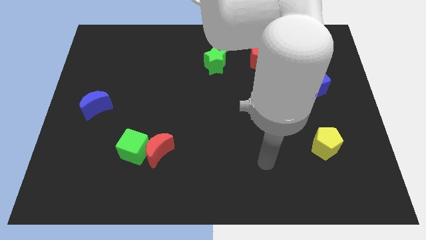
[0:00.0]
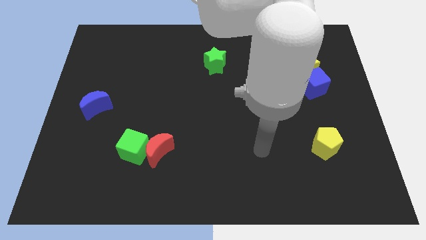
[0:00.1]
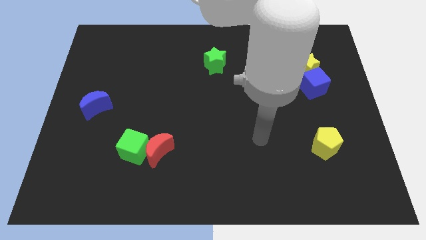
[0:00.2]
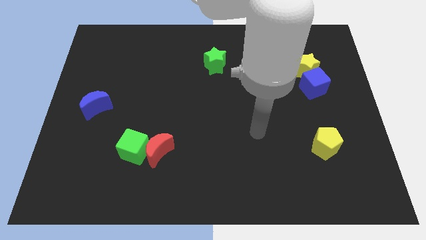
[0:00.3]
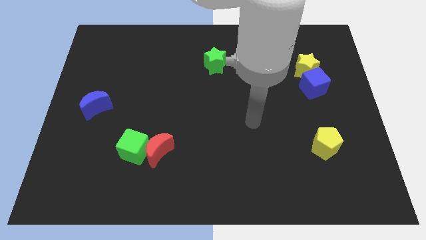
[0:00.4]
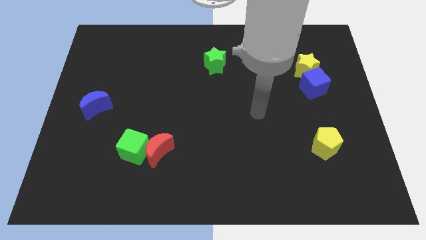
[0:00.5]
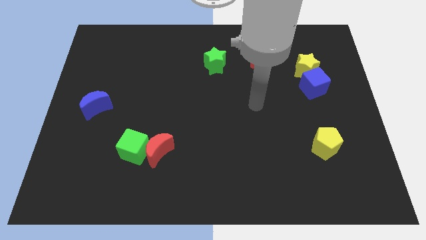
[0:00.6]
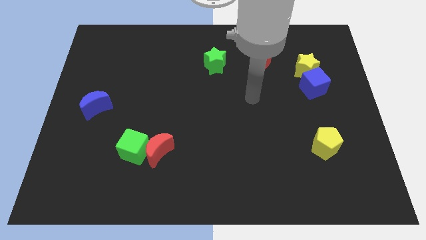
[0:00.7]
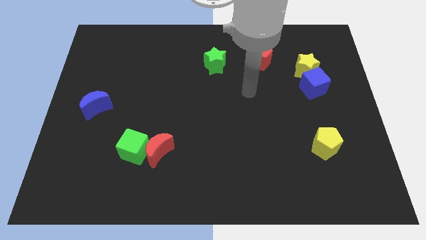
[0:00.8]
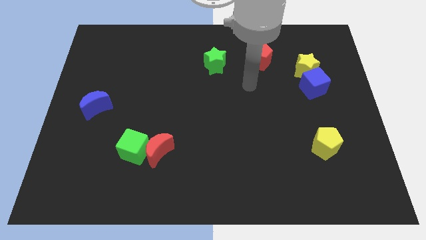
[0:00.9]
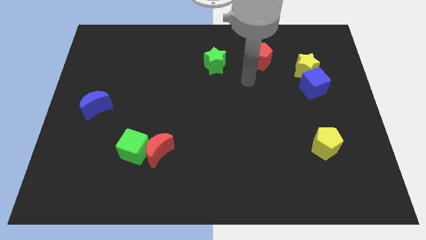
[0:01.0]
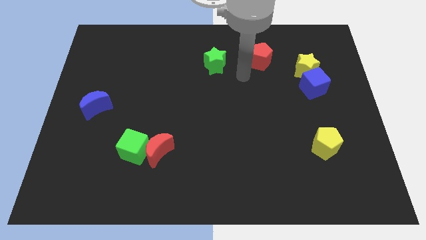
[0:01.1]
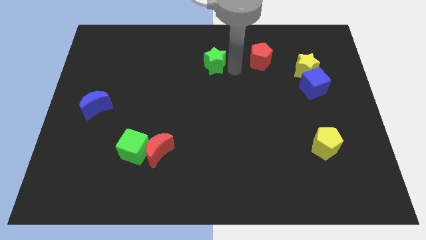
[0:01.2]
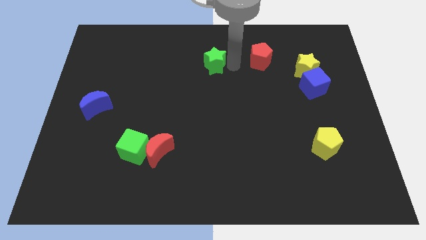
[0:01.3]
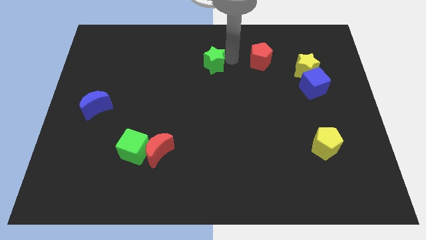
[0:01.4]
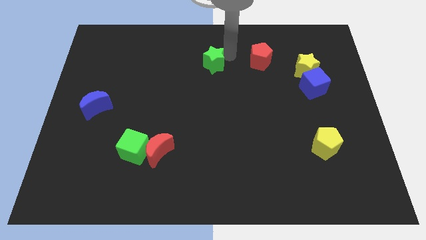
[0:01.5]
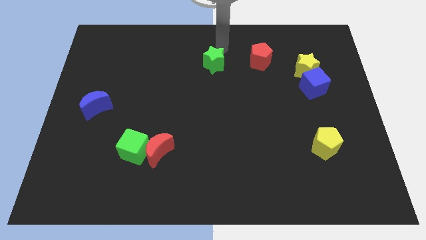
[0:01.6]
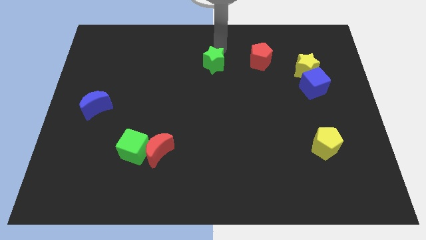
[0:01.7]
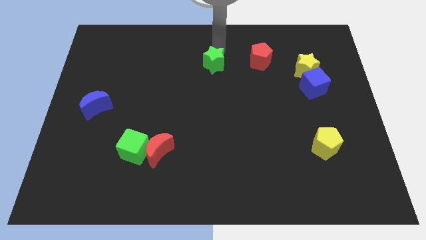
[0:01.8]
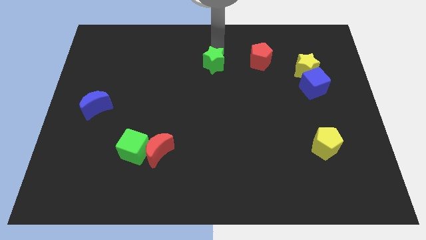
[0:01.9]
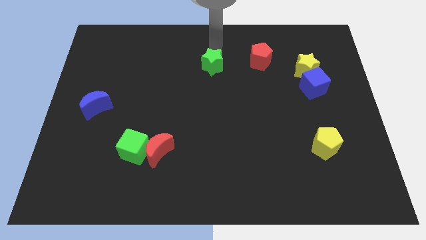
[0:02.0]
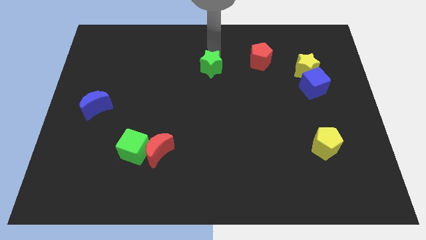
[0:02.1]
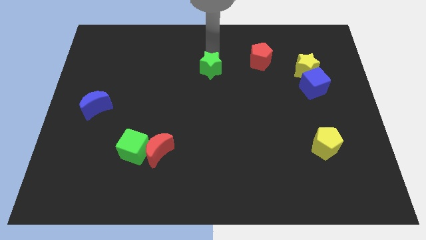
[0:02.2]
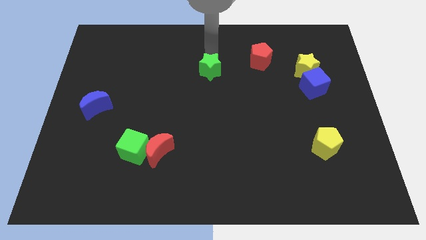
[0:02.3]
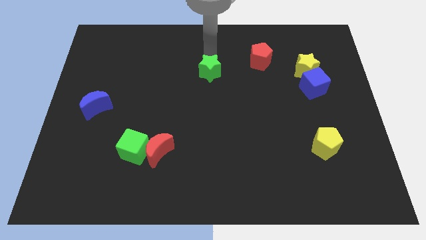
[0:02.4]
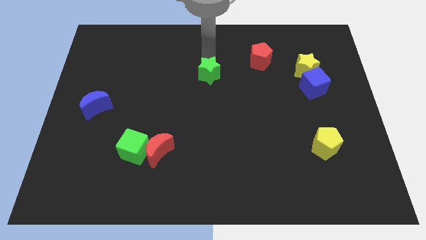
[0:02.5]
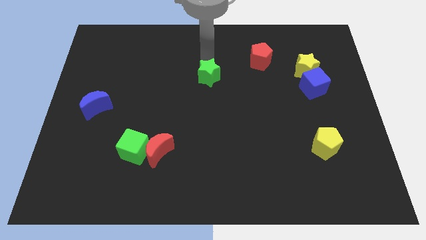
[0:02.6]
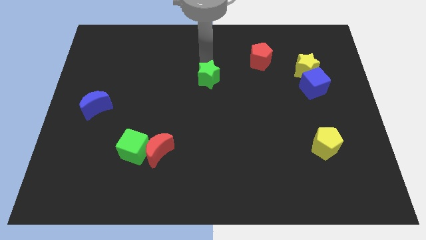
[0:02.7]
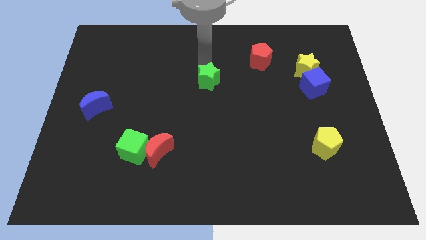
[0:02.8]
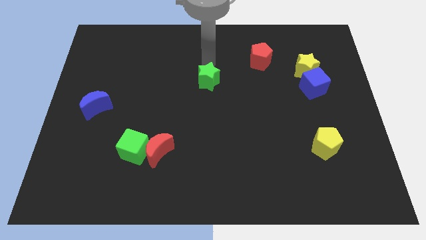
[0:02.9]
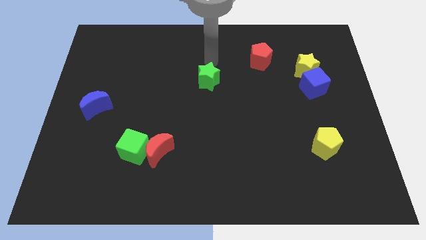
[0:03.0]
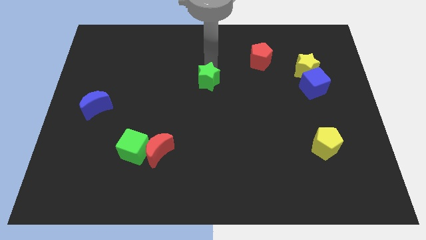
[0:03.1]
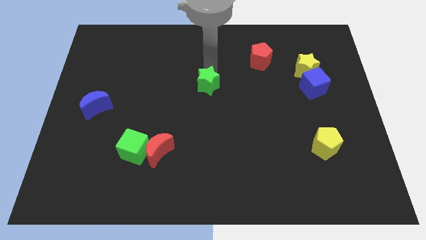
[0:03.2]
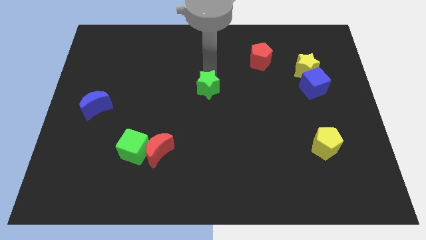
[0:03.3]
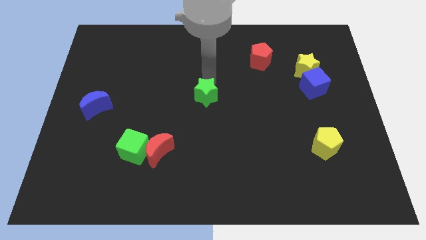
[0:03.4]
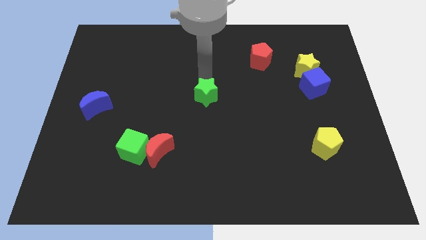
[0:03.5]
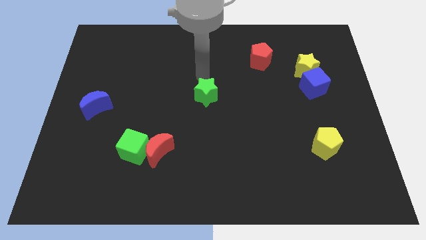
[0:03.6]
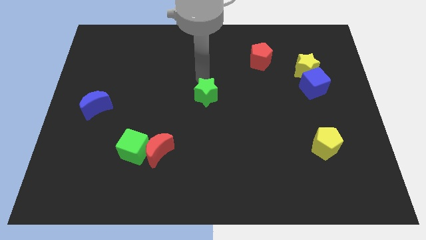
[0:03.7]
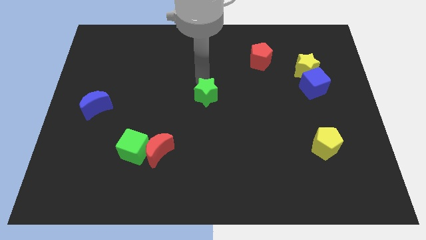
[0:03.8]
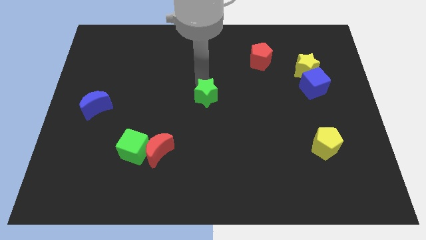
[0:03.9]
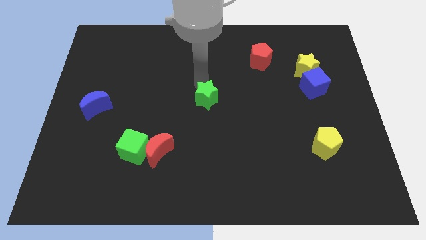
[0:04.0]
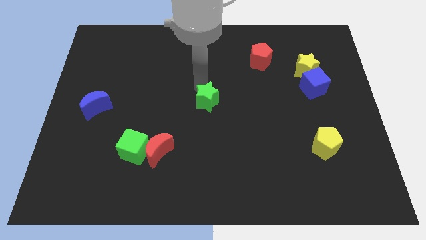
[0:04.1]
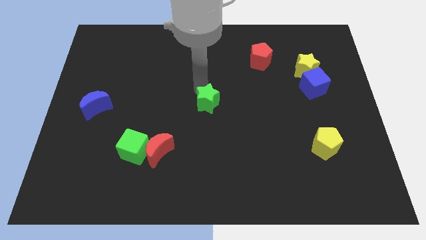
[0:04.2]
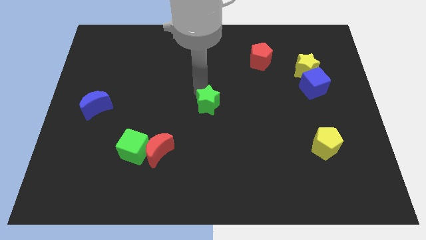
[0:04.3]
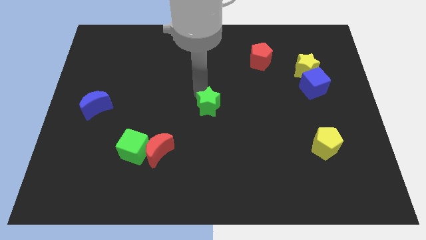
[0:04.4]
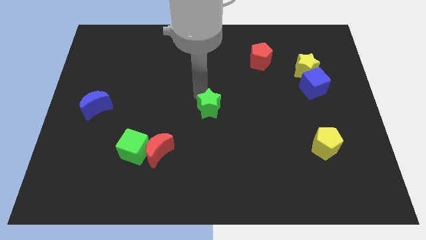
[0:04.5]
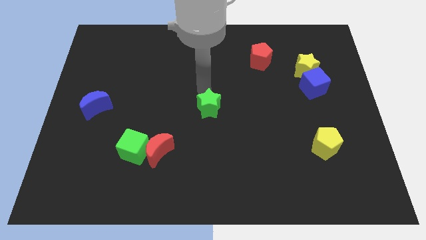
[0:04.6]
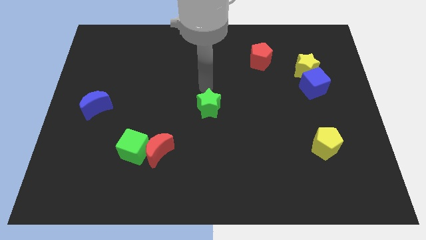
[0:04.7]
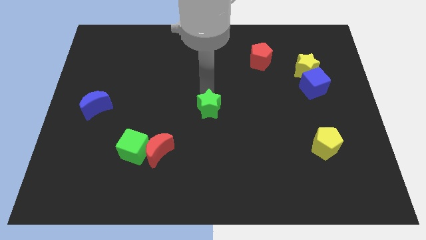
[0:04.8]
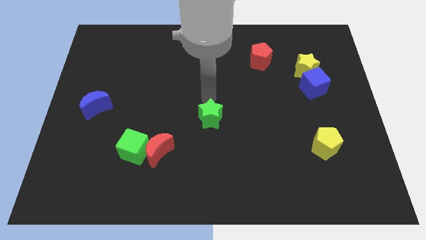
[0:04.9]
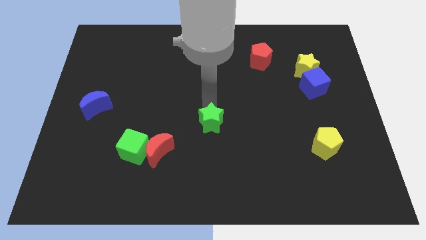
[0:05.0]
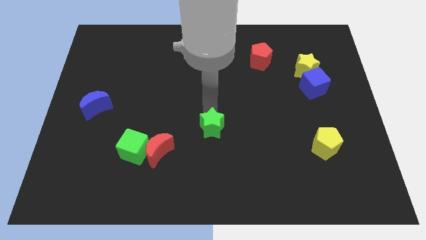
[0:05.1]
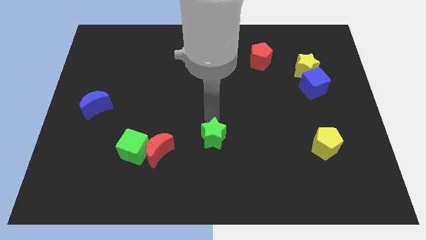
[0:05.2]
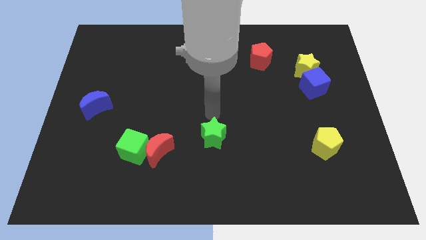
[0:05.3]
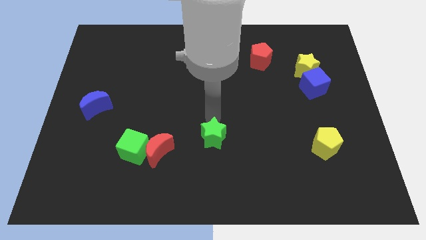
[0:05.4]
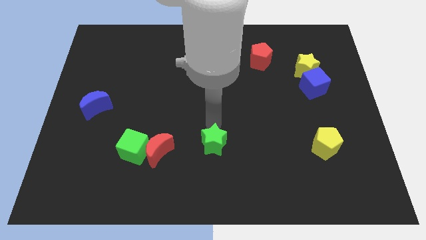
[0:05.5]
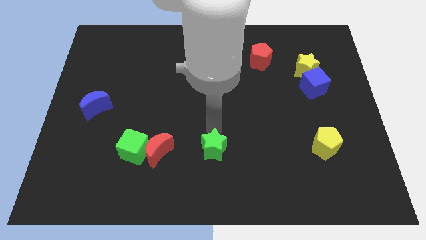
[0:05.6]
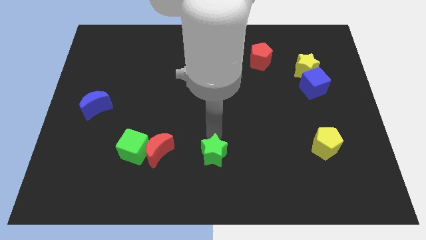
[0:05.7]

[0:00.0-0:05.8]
put the green star to the bottom
